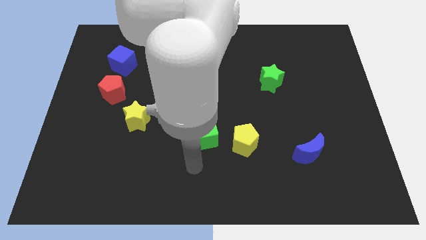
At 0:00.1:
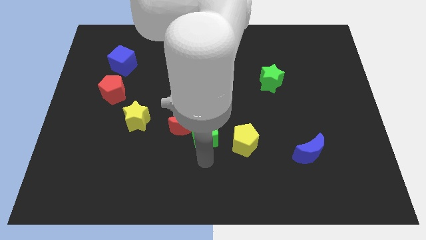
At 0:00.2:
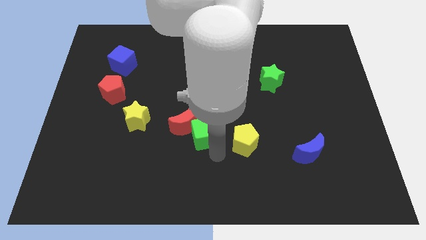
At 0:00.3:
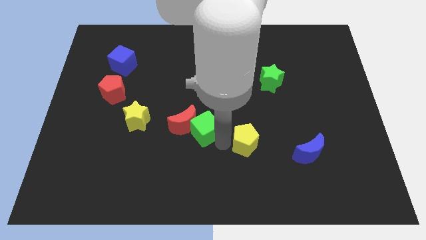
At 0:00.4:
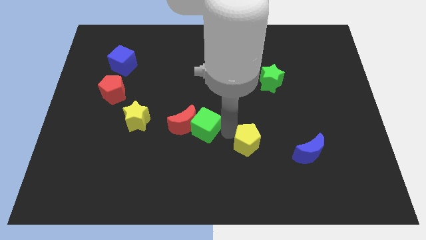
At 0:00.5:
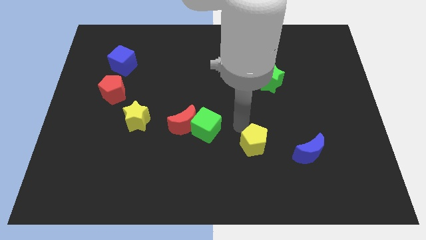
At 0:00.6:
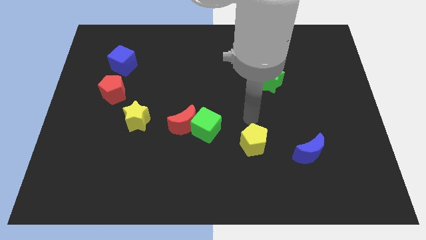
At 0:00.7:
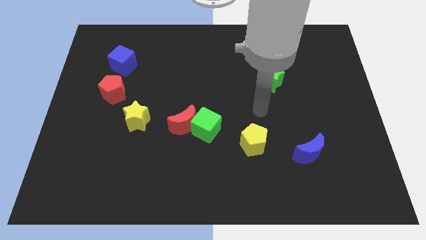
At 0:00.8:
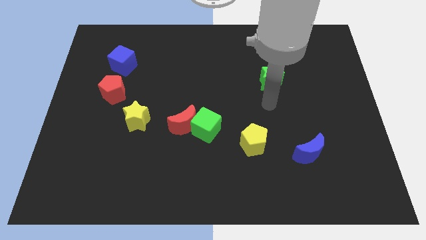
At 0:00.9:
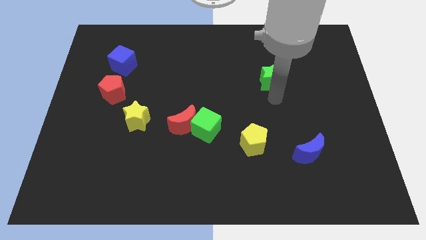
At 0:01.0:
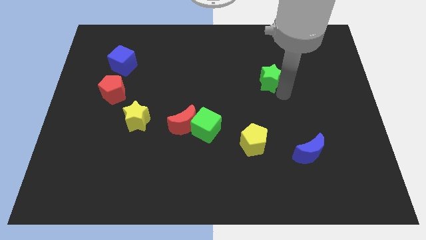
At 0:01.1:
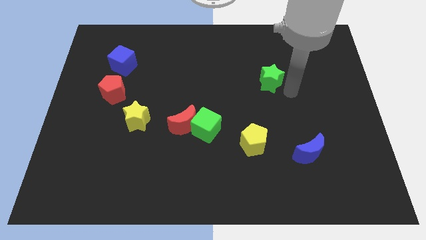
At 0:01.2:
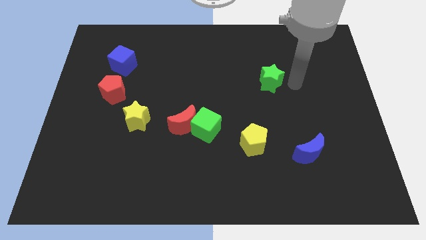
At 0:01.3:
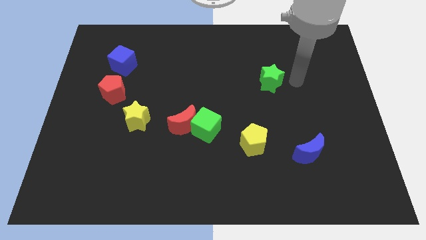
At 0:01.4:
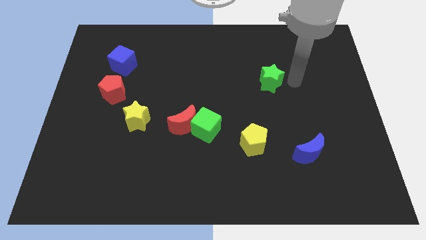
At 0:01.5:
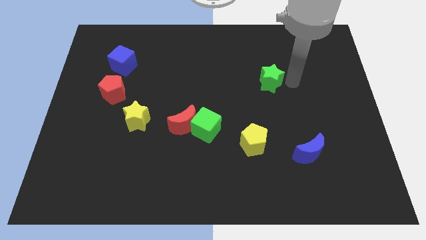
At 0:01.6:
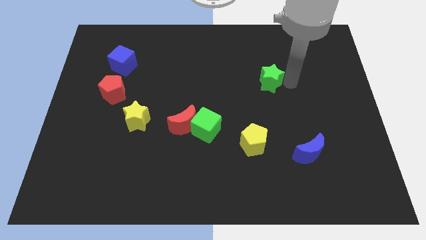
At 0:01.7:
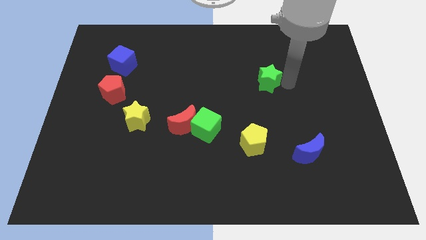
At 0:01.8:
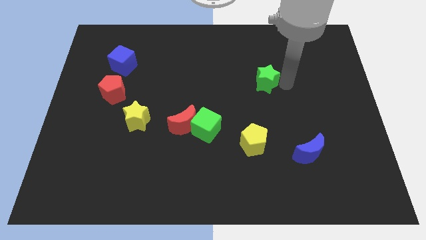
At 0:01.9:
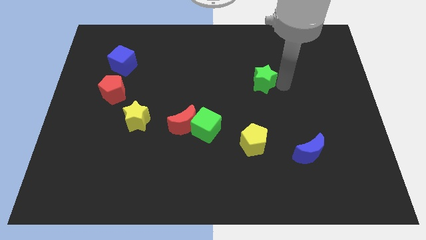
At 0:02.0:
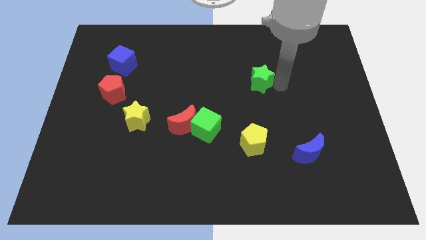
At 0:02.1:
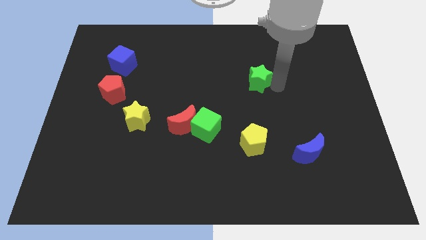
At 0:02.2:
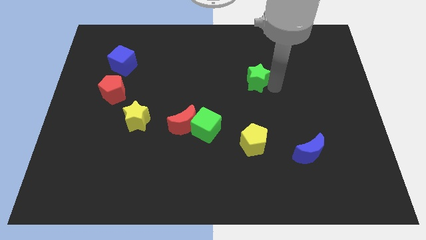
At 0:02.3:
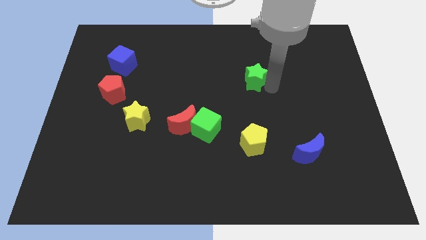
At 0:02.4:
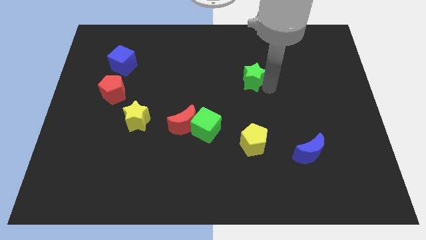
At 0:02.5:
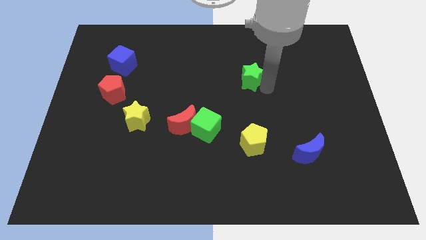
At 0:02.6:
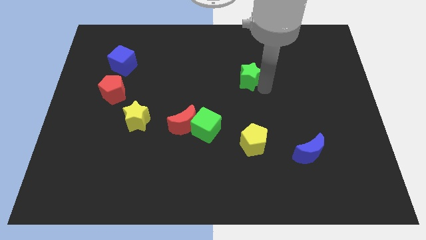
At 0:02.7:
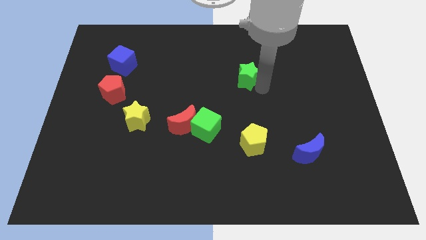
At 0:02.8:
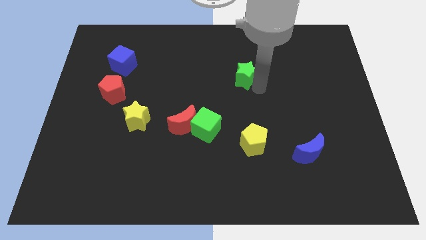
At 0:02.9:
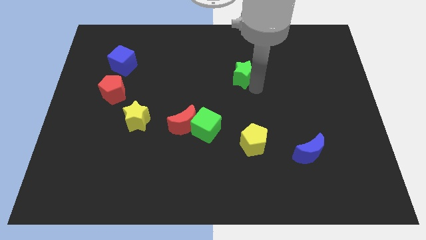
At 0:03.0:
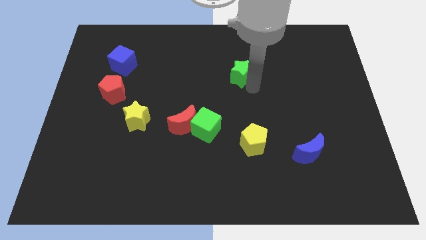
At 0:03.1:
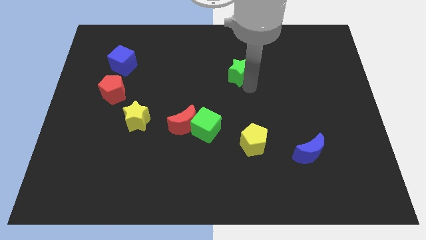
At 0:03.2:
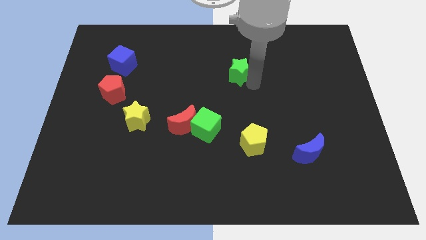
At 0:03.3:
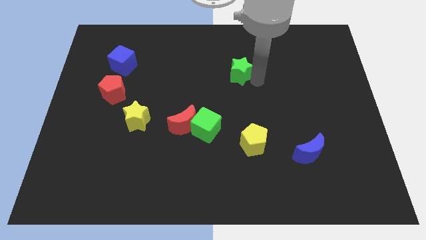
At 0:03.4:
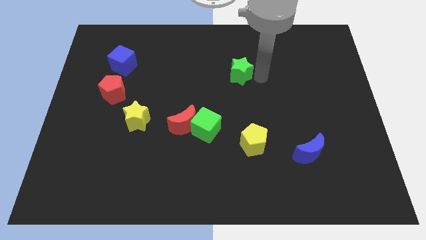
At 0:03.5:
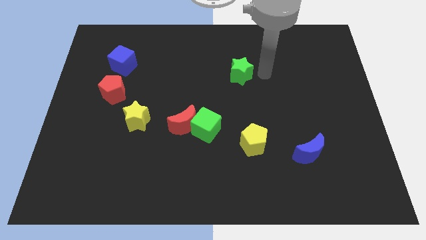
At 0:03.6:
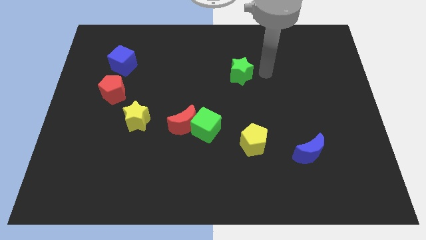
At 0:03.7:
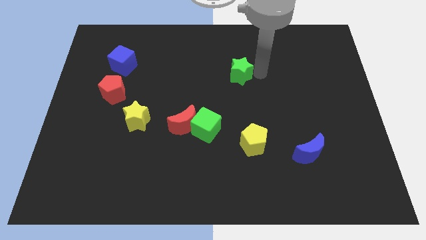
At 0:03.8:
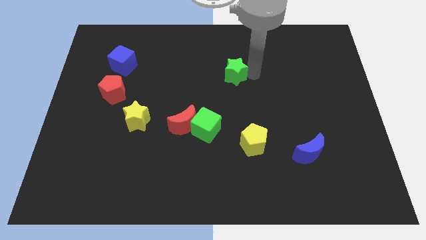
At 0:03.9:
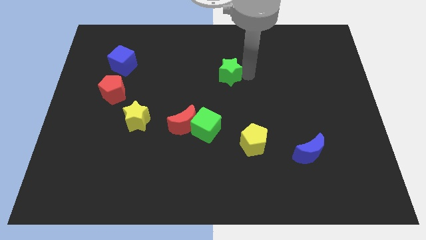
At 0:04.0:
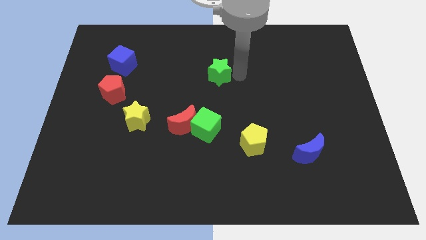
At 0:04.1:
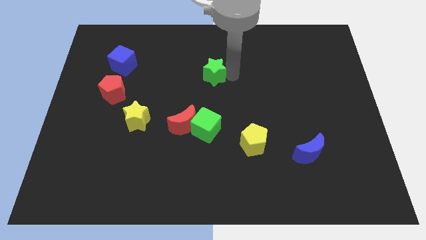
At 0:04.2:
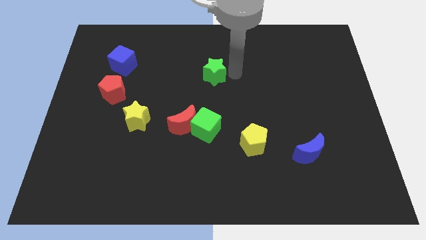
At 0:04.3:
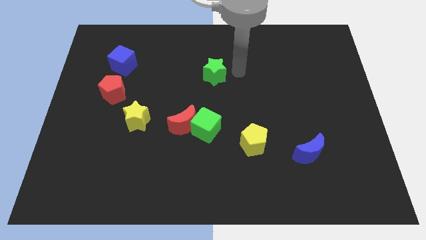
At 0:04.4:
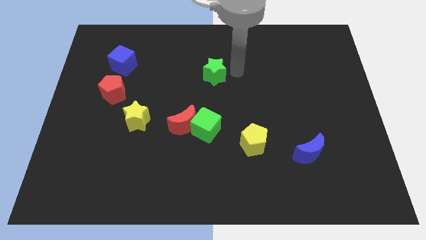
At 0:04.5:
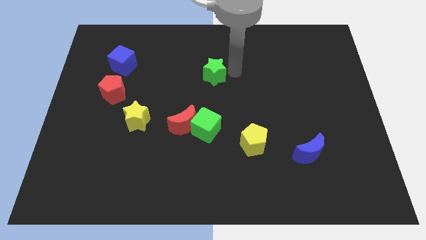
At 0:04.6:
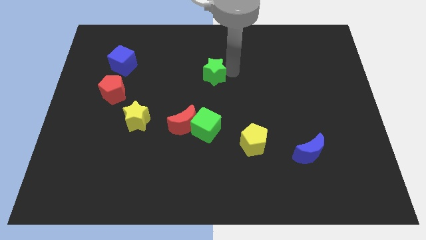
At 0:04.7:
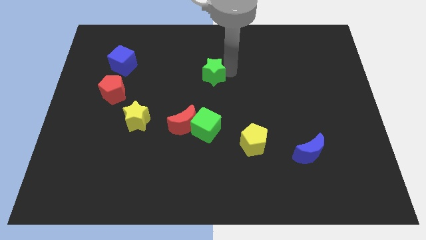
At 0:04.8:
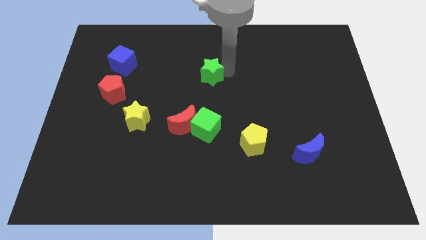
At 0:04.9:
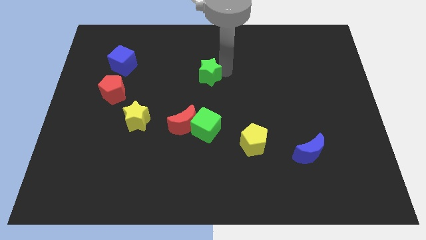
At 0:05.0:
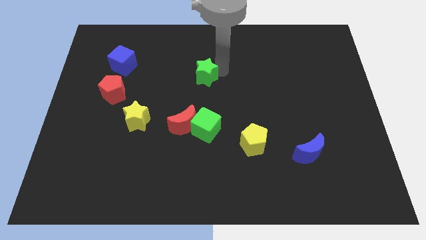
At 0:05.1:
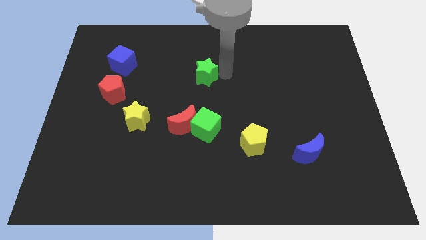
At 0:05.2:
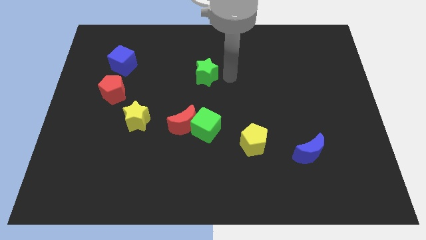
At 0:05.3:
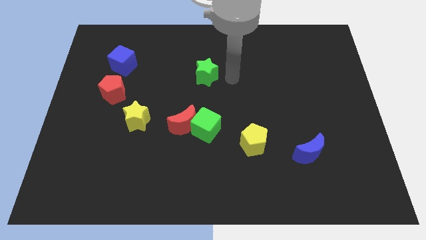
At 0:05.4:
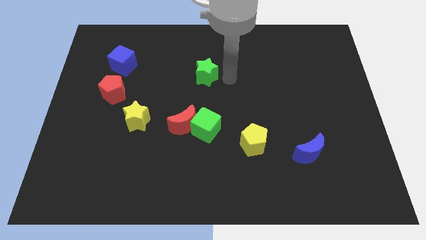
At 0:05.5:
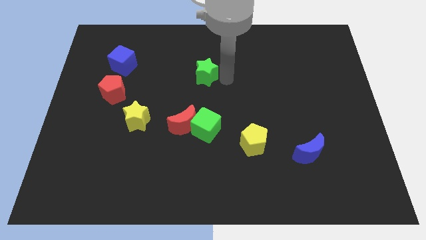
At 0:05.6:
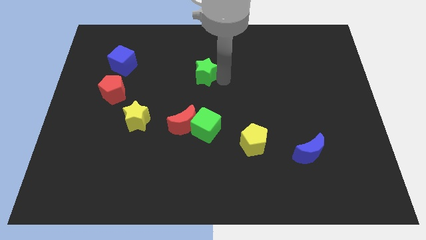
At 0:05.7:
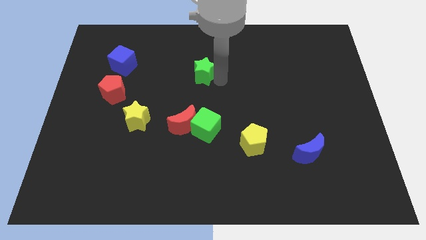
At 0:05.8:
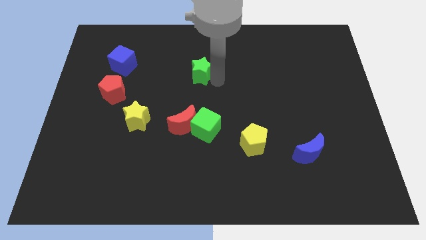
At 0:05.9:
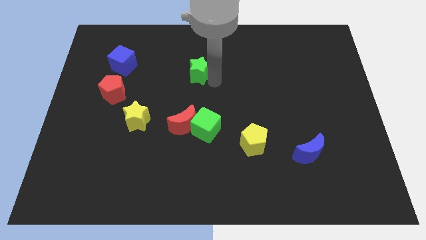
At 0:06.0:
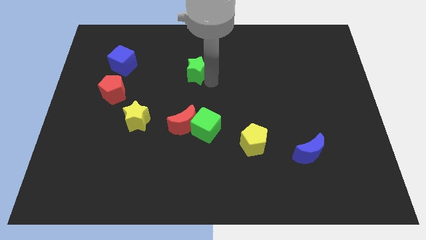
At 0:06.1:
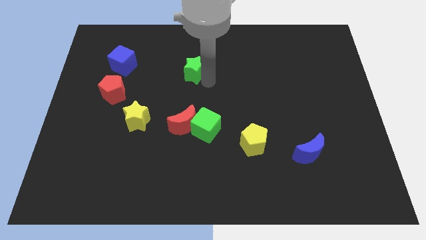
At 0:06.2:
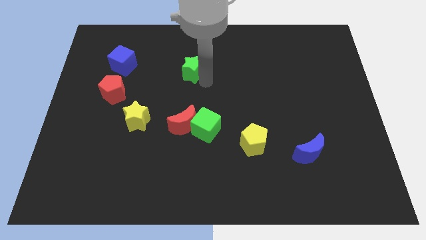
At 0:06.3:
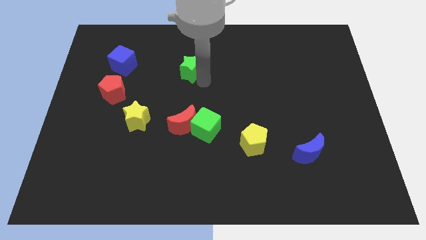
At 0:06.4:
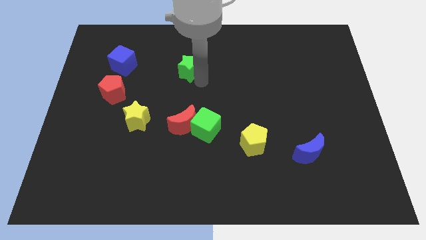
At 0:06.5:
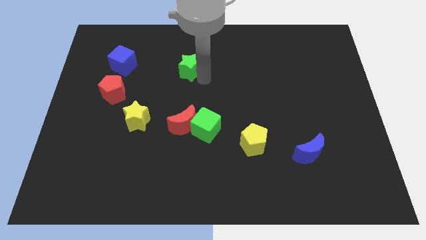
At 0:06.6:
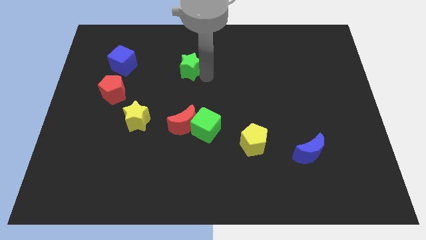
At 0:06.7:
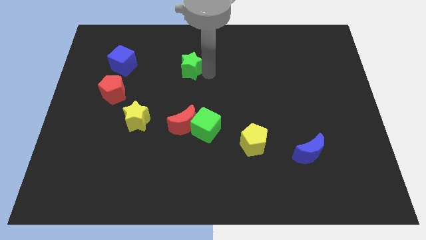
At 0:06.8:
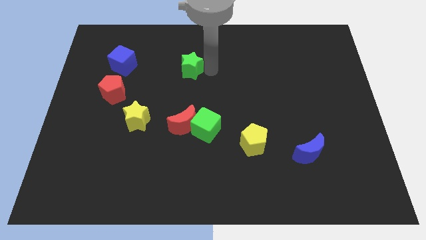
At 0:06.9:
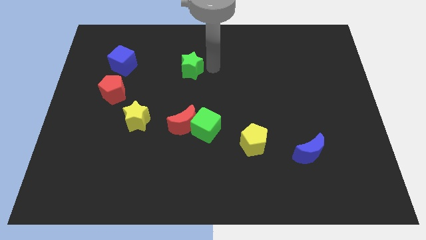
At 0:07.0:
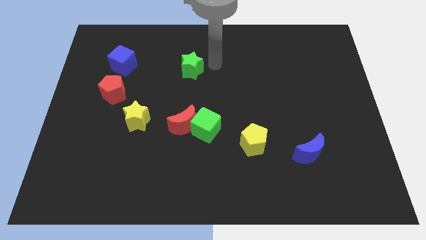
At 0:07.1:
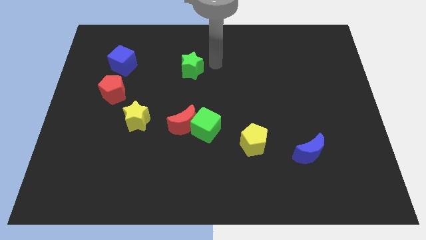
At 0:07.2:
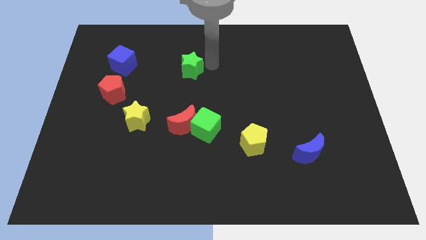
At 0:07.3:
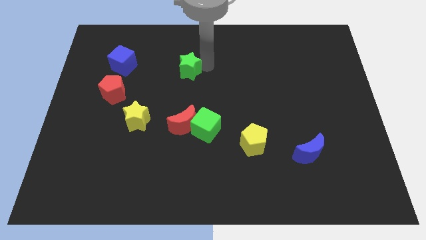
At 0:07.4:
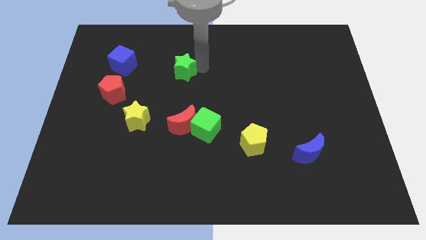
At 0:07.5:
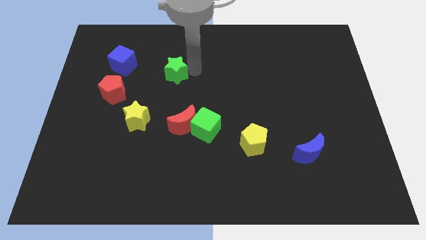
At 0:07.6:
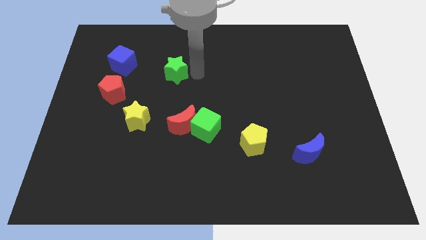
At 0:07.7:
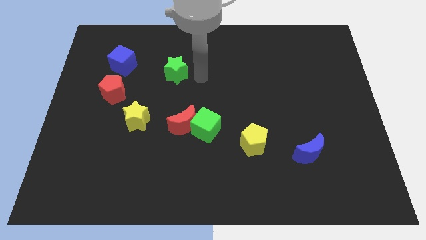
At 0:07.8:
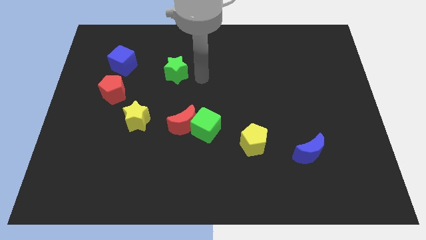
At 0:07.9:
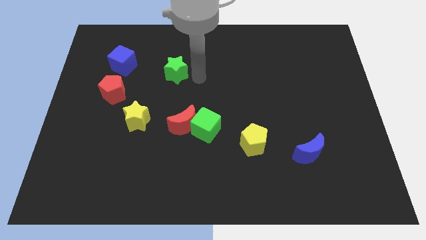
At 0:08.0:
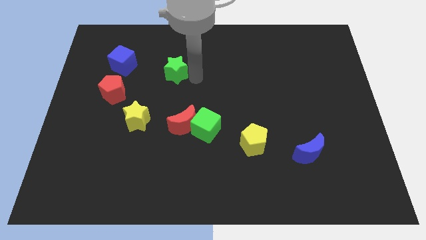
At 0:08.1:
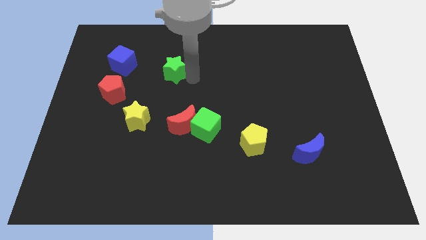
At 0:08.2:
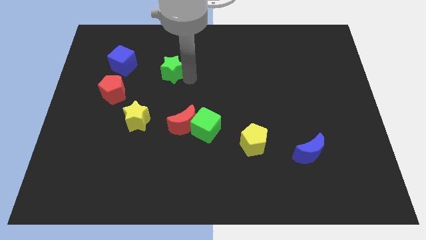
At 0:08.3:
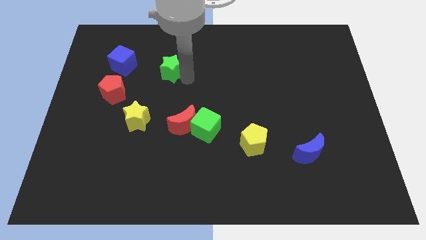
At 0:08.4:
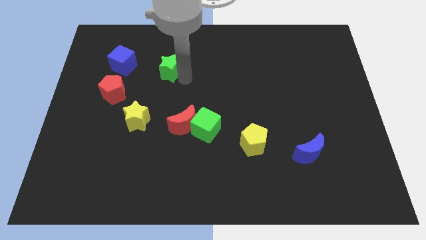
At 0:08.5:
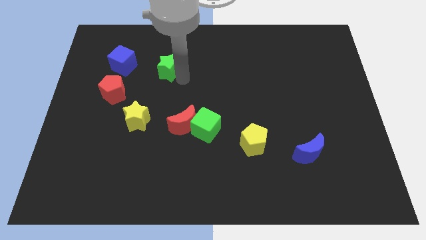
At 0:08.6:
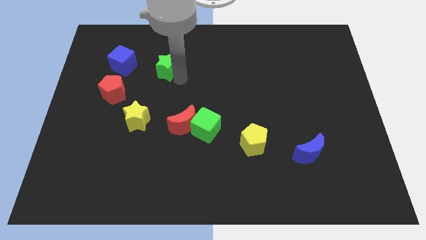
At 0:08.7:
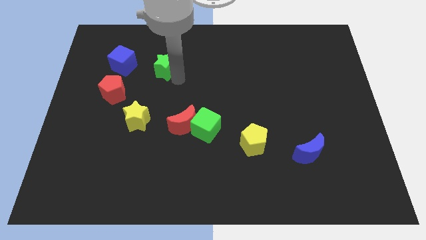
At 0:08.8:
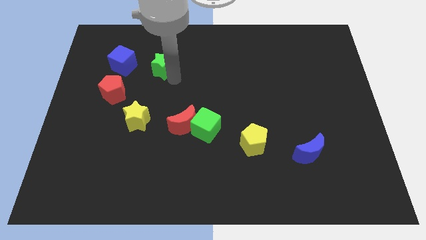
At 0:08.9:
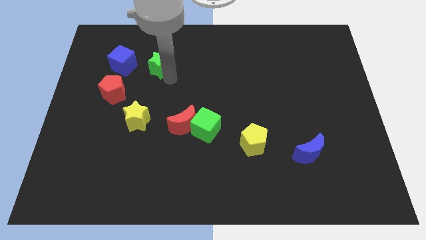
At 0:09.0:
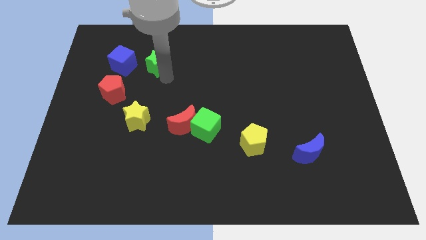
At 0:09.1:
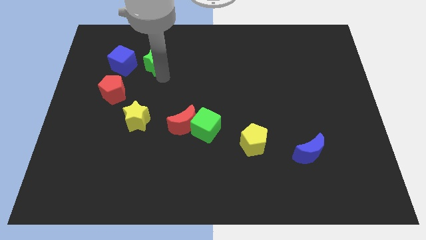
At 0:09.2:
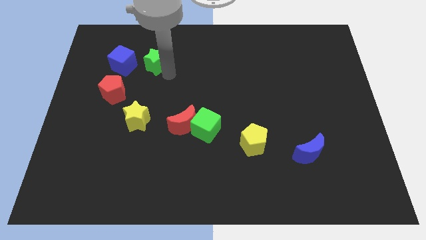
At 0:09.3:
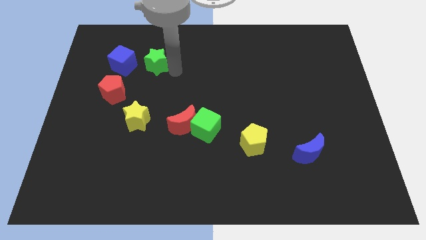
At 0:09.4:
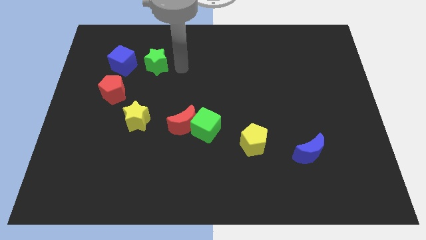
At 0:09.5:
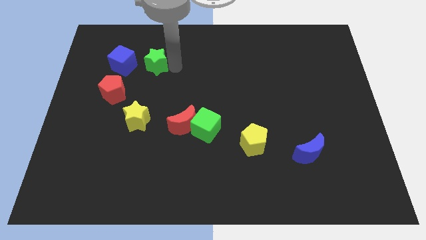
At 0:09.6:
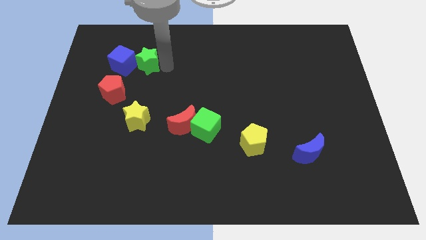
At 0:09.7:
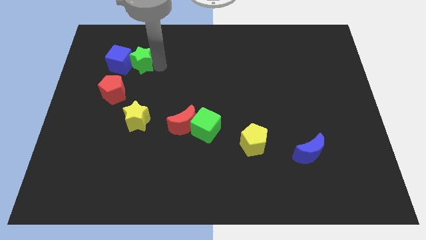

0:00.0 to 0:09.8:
put the green star to the blue cube
